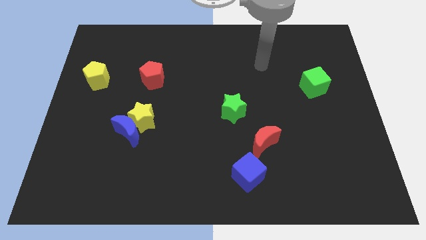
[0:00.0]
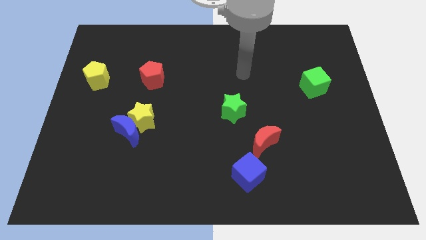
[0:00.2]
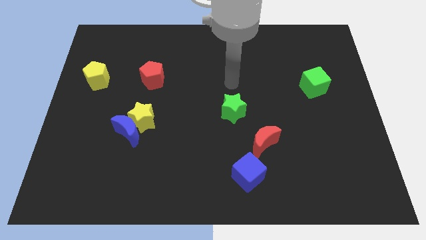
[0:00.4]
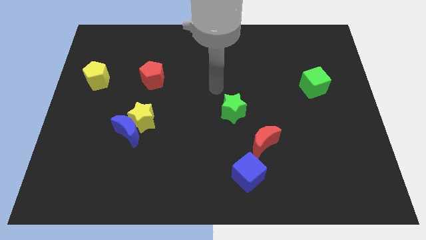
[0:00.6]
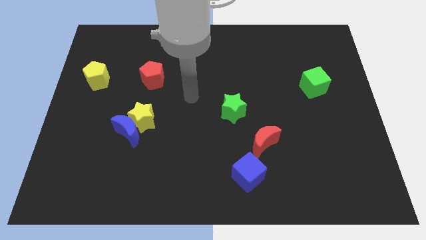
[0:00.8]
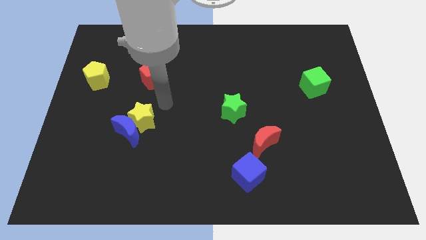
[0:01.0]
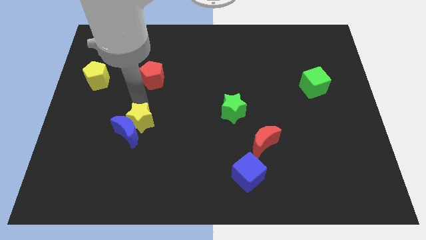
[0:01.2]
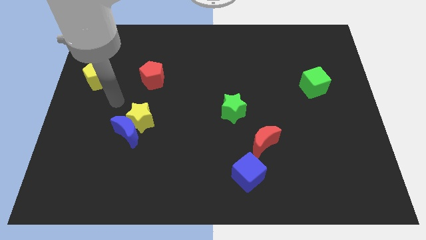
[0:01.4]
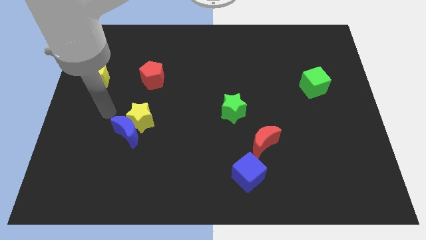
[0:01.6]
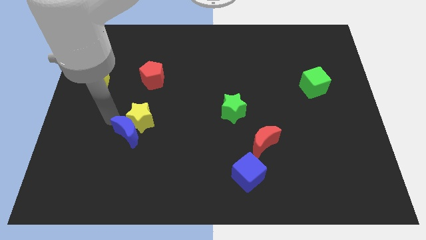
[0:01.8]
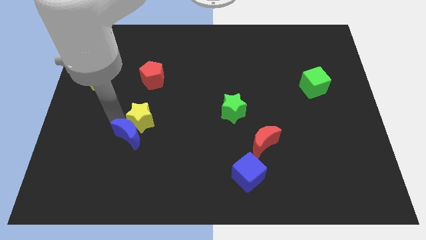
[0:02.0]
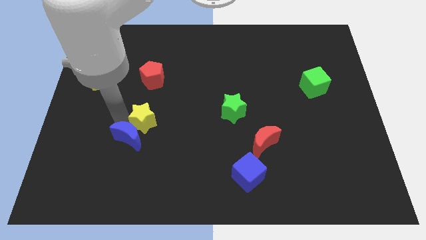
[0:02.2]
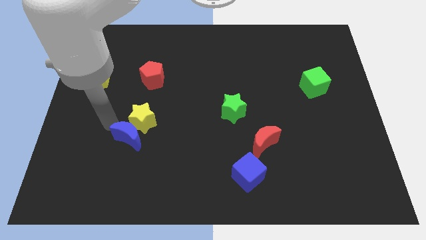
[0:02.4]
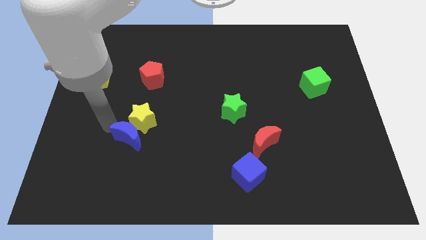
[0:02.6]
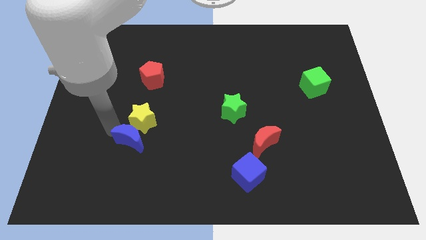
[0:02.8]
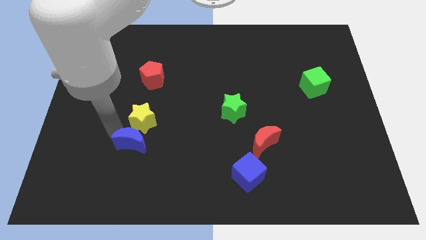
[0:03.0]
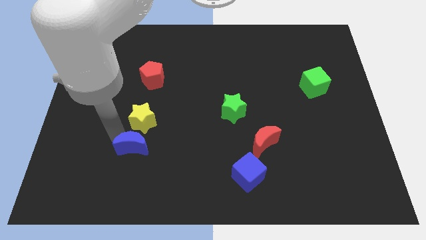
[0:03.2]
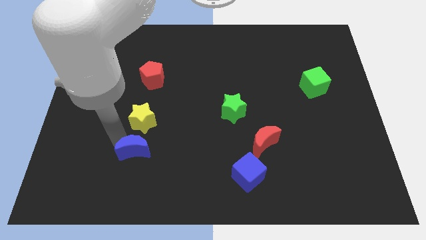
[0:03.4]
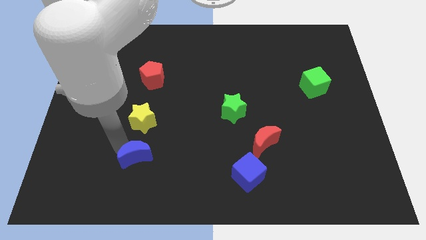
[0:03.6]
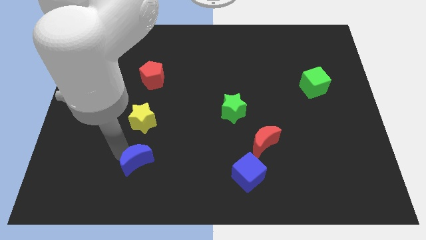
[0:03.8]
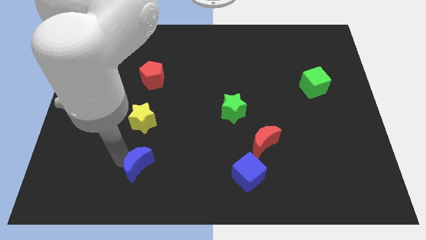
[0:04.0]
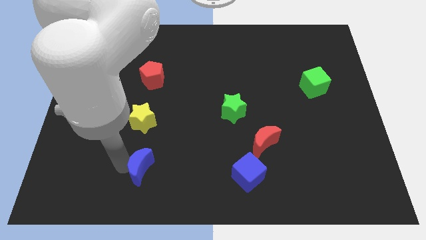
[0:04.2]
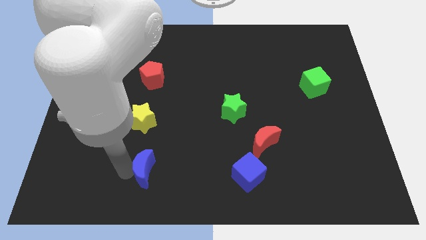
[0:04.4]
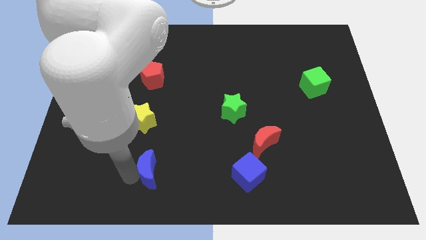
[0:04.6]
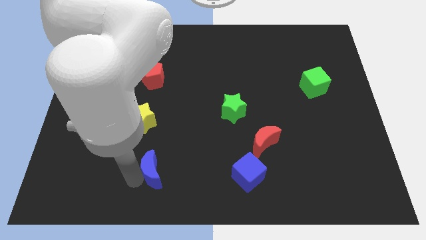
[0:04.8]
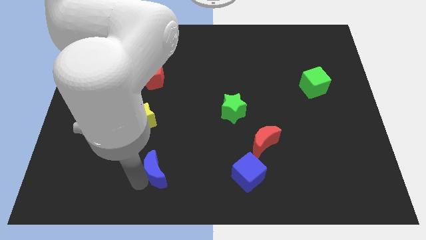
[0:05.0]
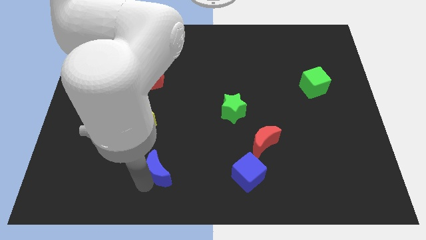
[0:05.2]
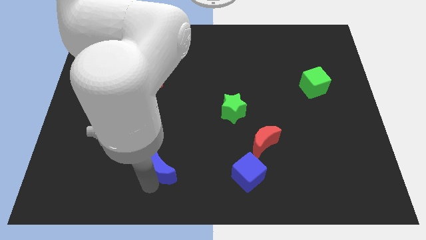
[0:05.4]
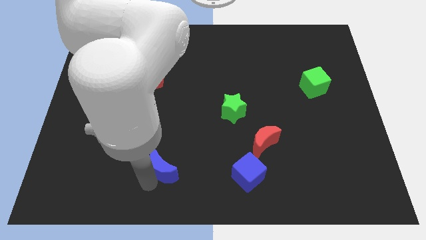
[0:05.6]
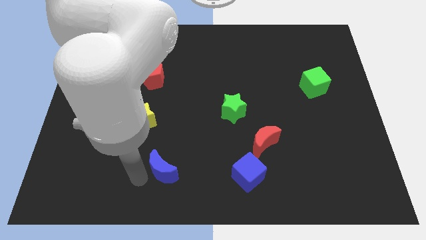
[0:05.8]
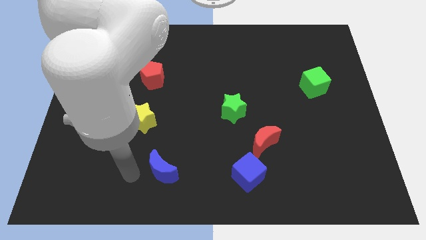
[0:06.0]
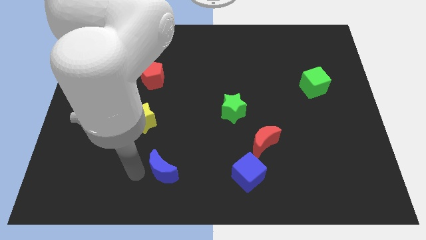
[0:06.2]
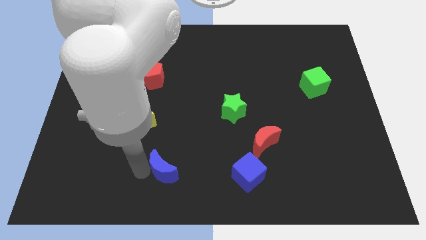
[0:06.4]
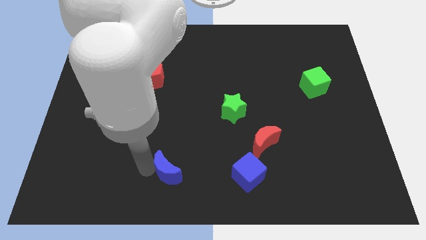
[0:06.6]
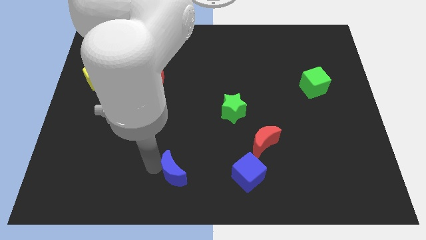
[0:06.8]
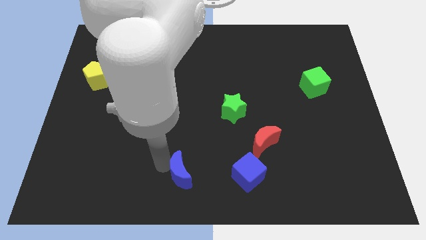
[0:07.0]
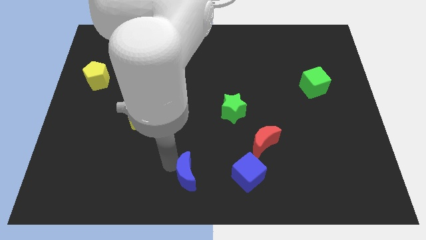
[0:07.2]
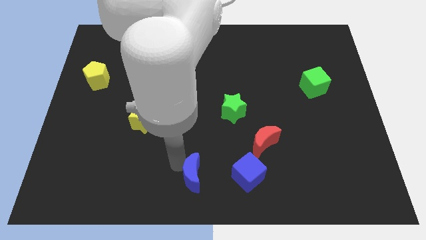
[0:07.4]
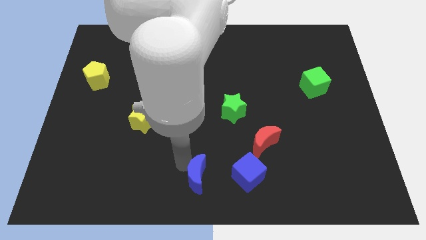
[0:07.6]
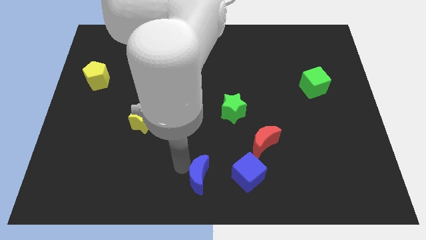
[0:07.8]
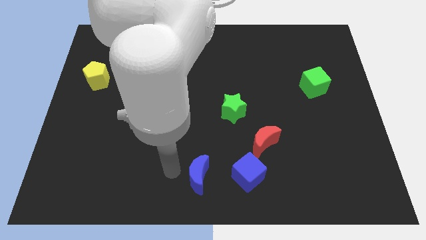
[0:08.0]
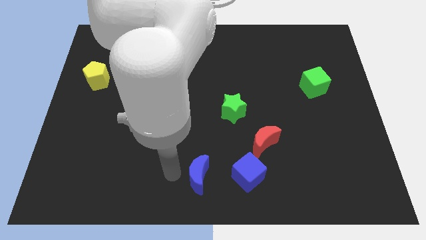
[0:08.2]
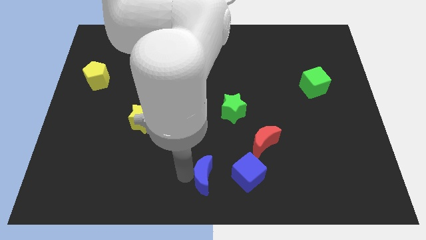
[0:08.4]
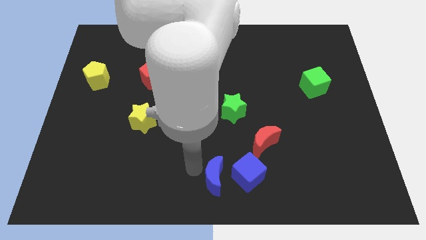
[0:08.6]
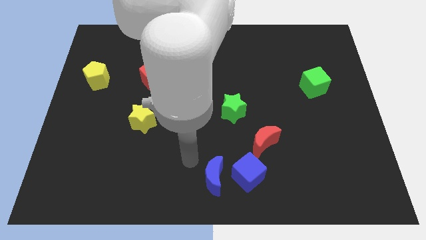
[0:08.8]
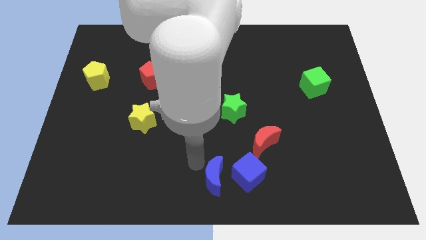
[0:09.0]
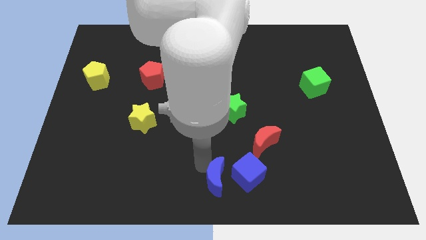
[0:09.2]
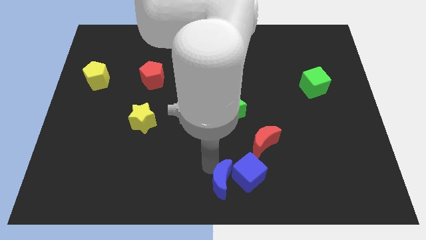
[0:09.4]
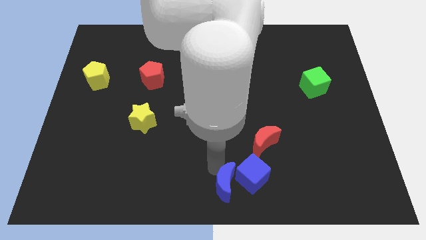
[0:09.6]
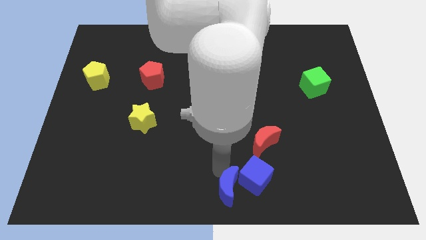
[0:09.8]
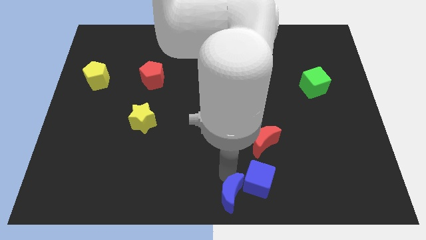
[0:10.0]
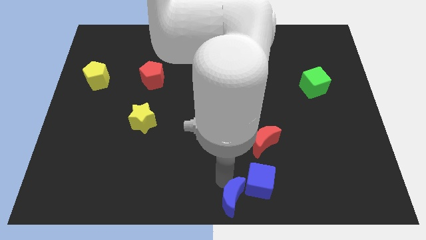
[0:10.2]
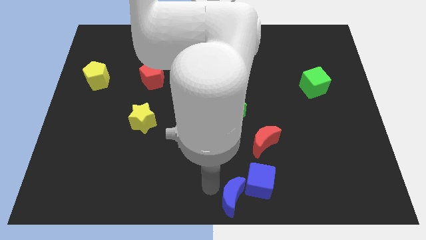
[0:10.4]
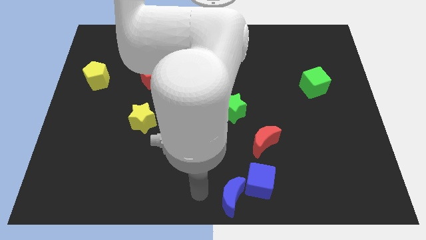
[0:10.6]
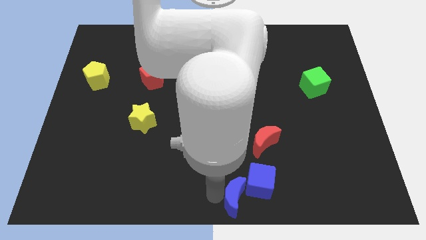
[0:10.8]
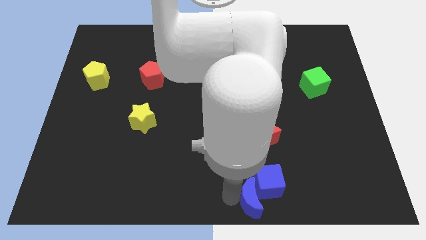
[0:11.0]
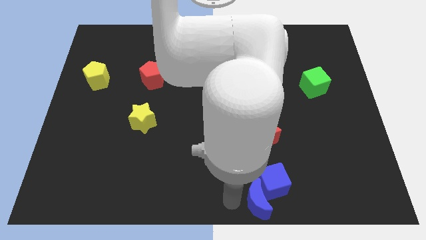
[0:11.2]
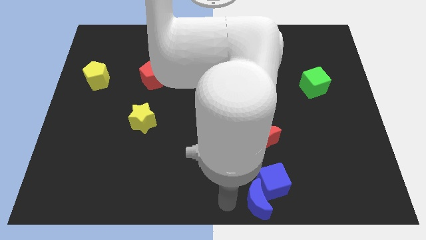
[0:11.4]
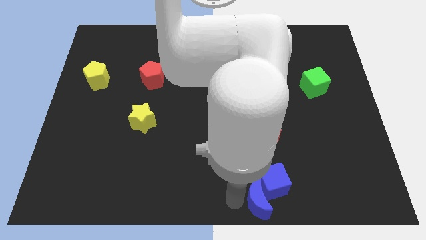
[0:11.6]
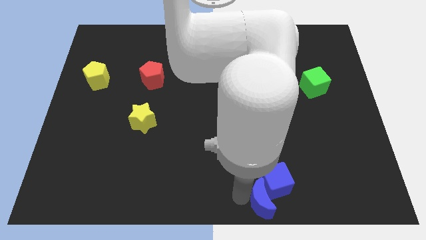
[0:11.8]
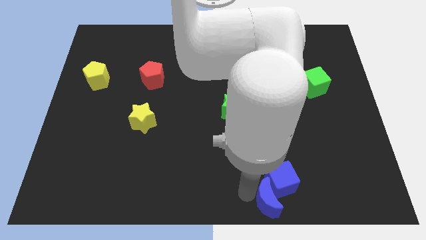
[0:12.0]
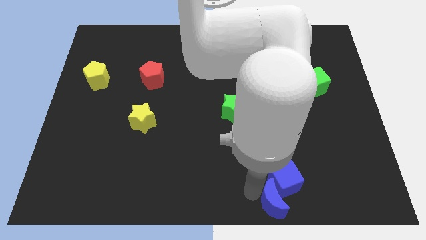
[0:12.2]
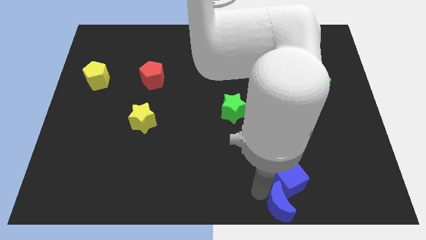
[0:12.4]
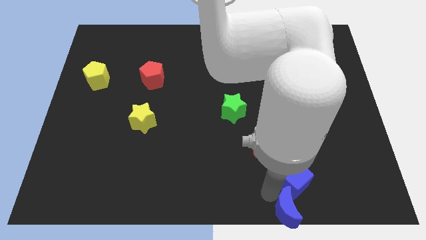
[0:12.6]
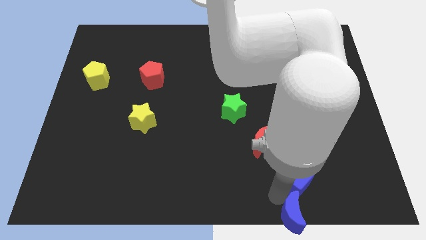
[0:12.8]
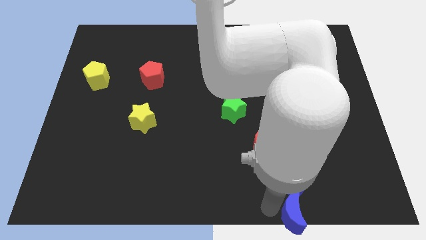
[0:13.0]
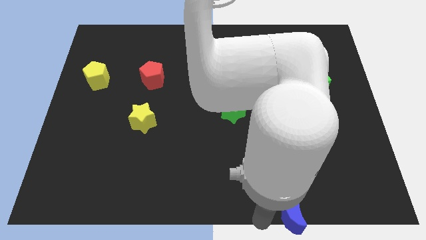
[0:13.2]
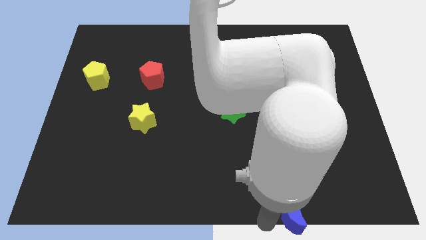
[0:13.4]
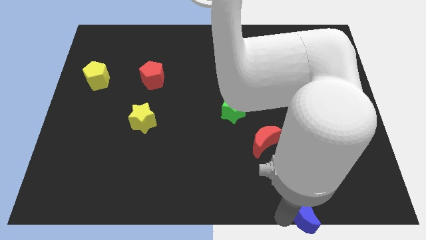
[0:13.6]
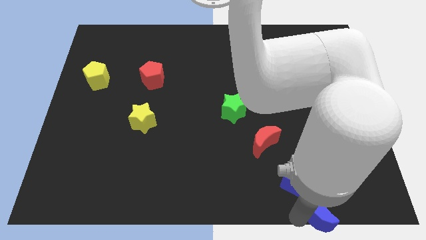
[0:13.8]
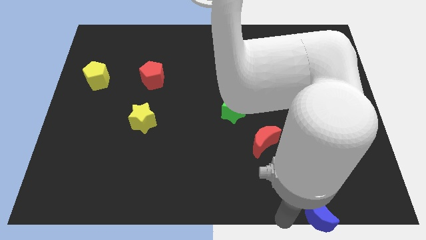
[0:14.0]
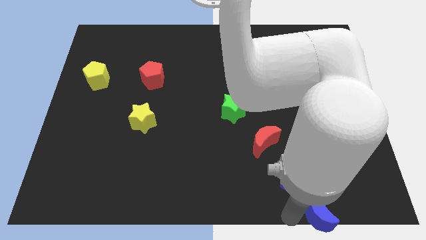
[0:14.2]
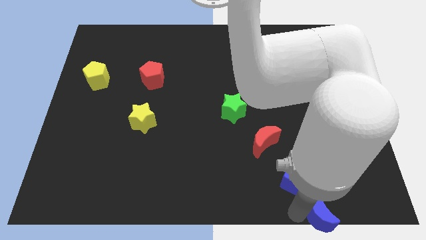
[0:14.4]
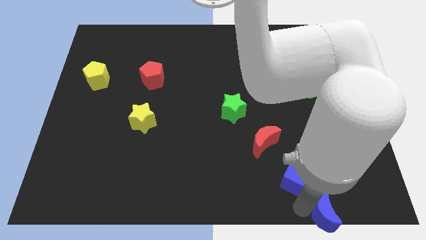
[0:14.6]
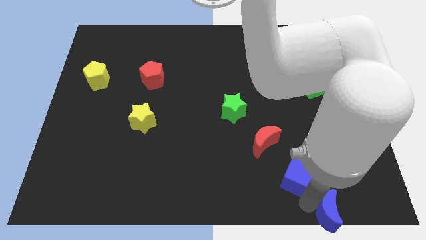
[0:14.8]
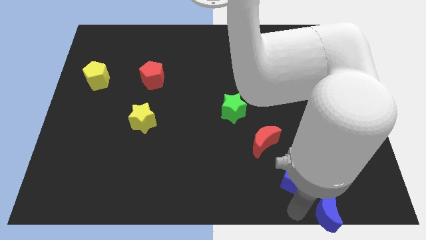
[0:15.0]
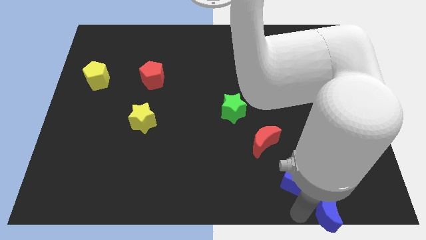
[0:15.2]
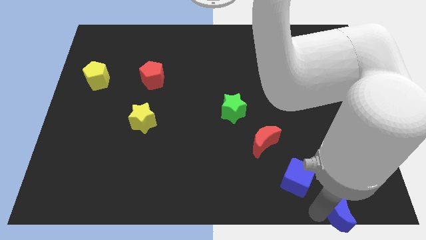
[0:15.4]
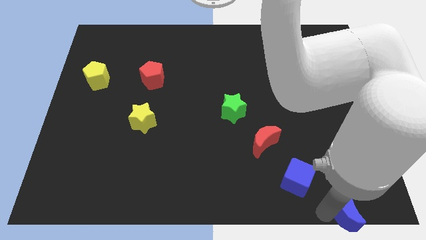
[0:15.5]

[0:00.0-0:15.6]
slide the blue moon to the bottom right corner
